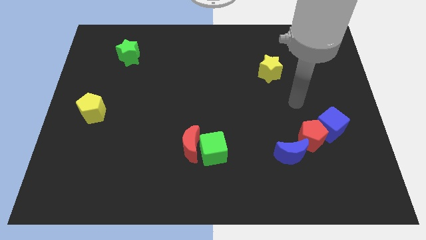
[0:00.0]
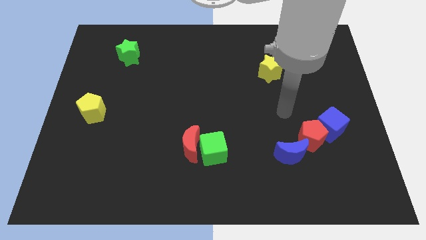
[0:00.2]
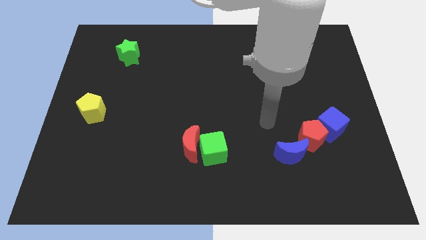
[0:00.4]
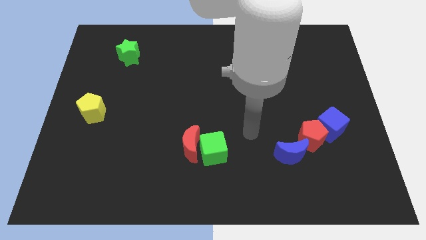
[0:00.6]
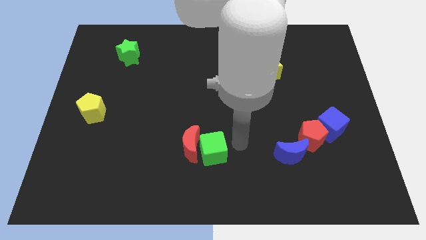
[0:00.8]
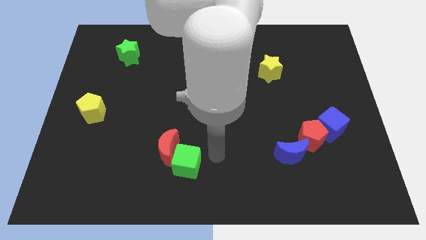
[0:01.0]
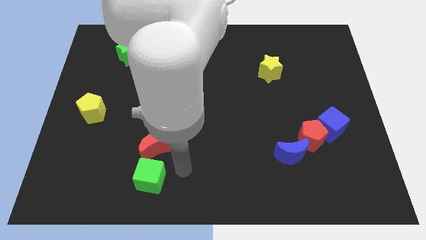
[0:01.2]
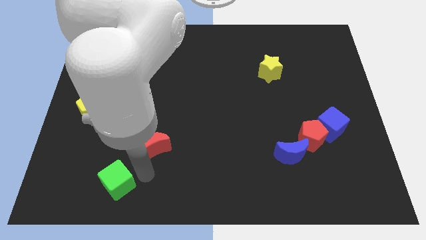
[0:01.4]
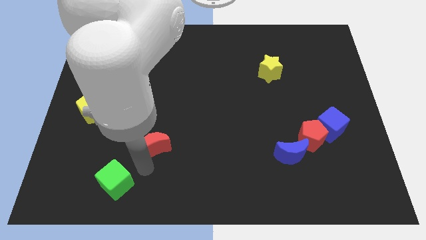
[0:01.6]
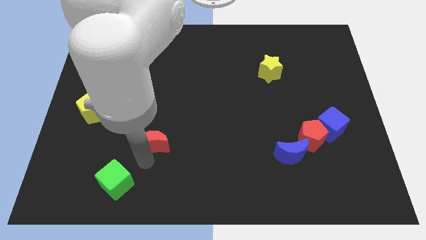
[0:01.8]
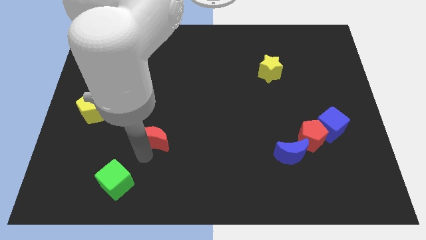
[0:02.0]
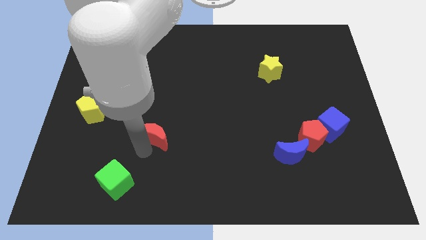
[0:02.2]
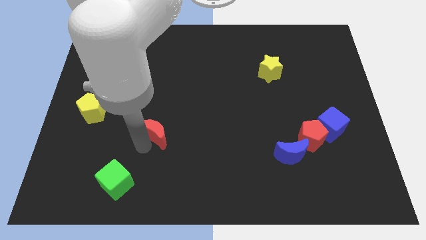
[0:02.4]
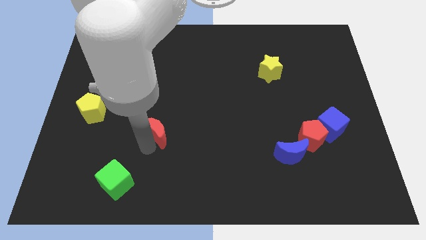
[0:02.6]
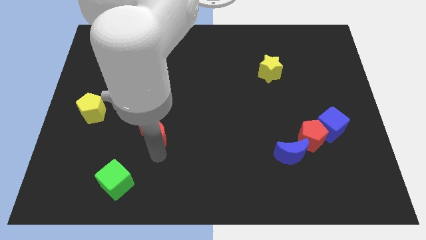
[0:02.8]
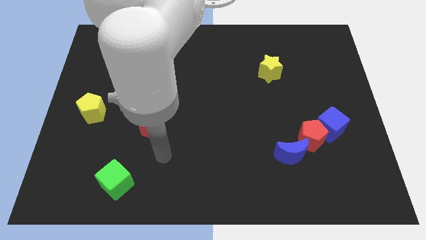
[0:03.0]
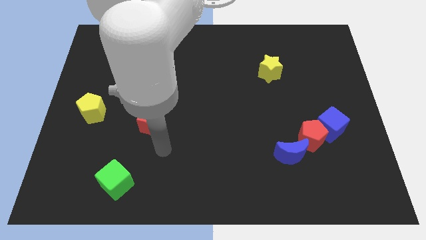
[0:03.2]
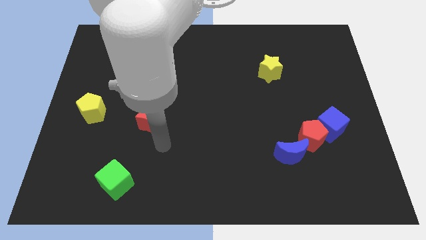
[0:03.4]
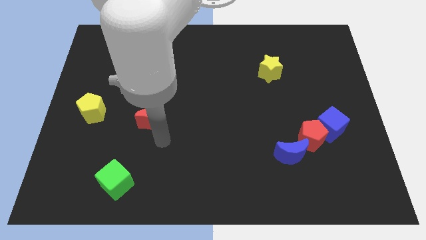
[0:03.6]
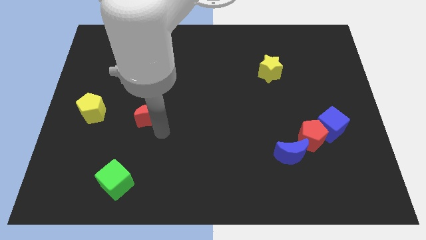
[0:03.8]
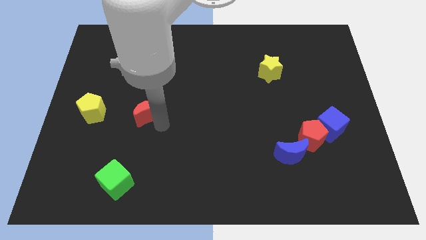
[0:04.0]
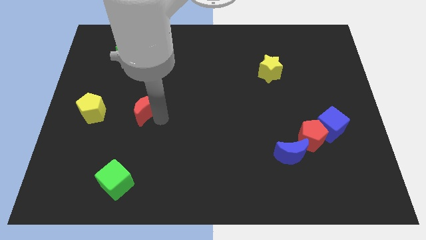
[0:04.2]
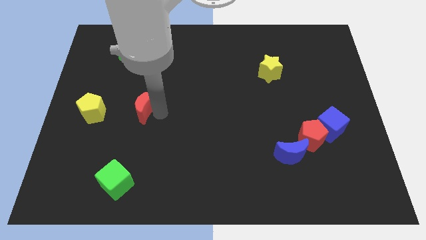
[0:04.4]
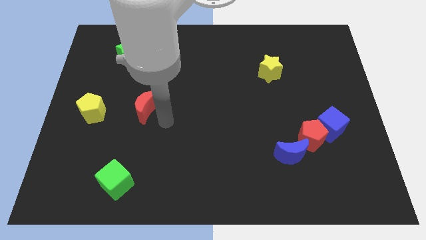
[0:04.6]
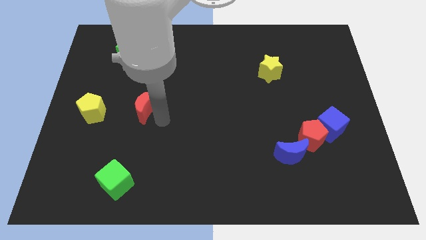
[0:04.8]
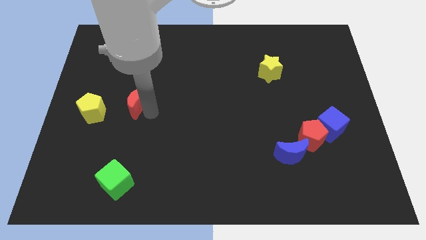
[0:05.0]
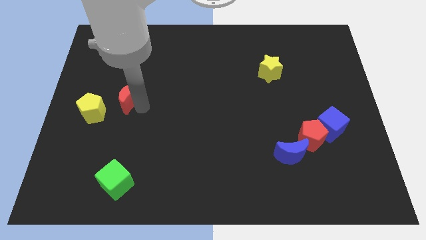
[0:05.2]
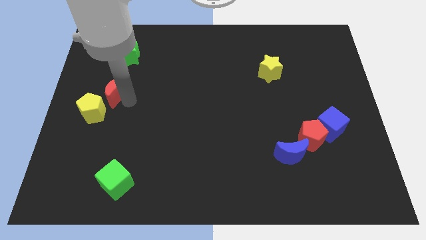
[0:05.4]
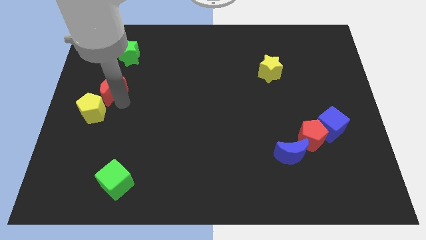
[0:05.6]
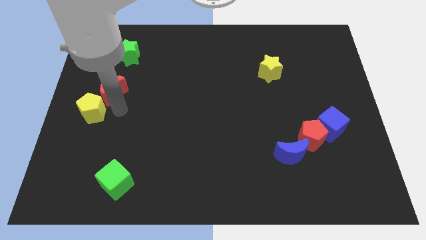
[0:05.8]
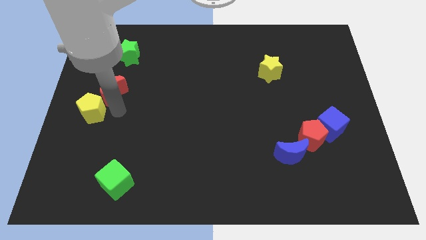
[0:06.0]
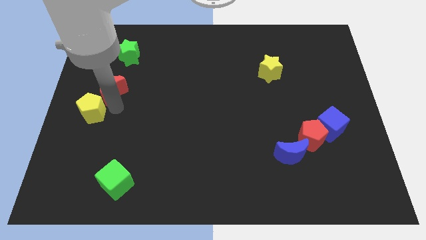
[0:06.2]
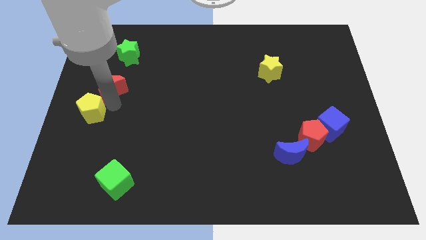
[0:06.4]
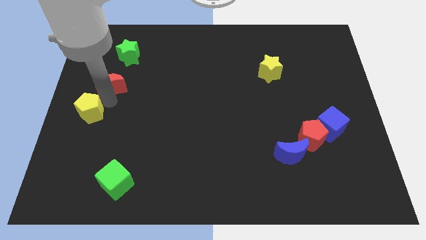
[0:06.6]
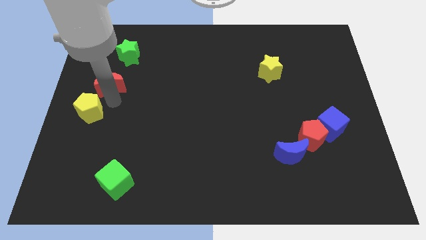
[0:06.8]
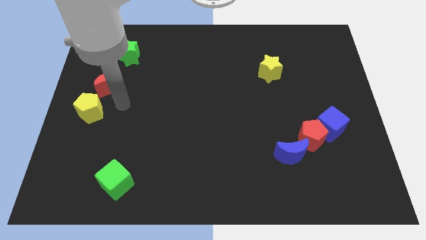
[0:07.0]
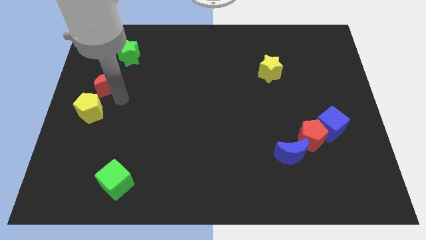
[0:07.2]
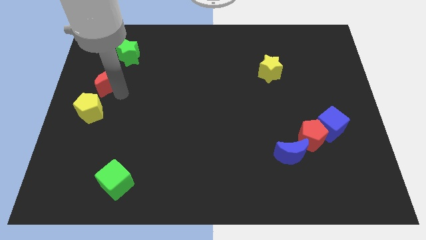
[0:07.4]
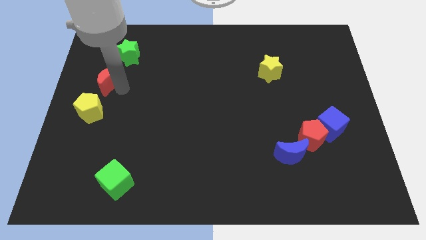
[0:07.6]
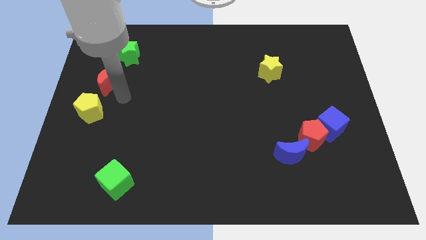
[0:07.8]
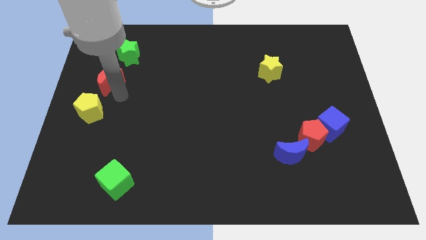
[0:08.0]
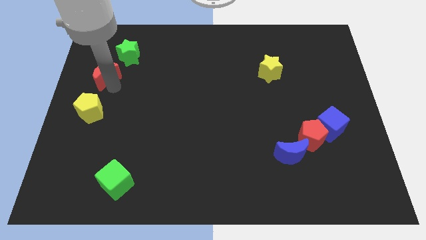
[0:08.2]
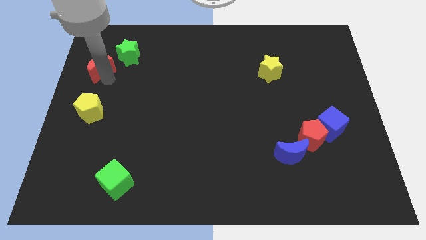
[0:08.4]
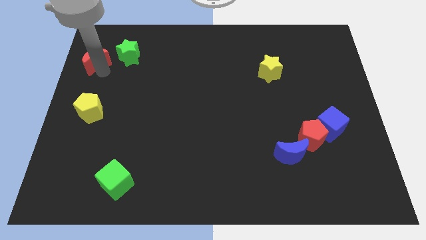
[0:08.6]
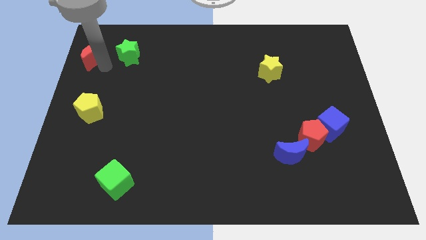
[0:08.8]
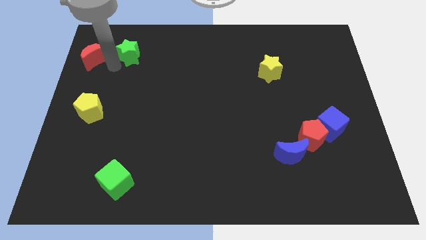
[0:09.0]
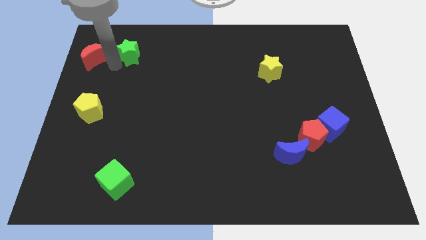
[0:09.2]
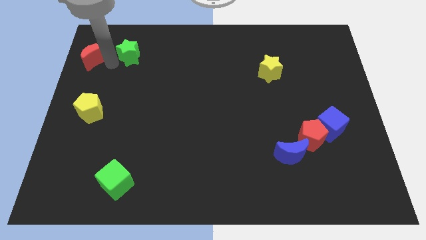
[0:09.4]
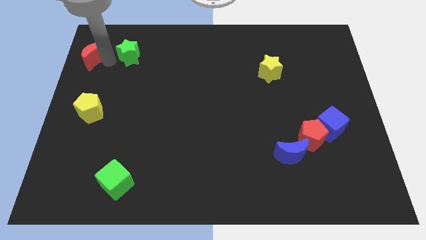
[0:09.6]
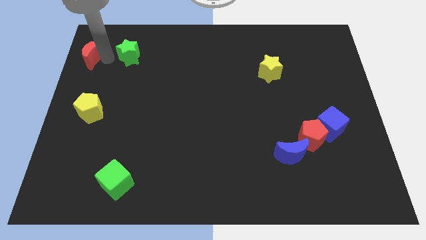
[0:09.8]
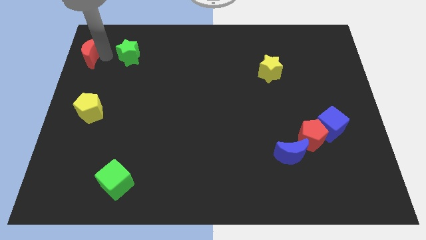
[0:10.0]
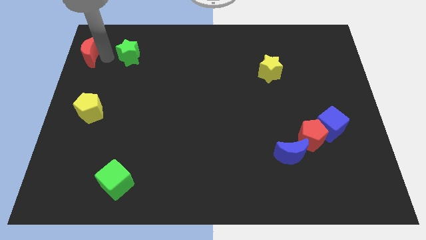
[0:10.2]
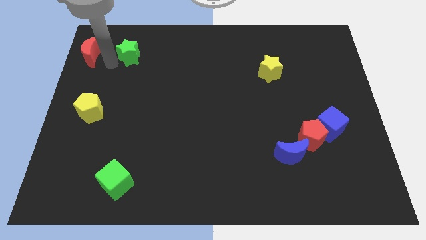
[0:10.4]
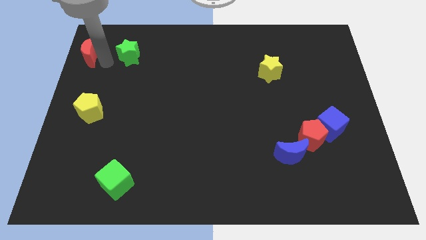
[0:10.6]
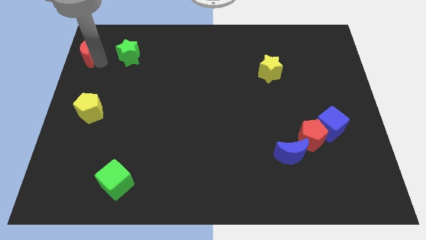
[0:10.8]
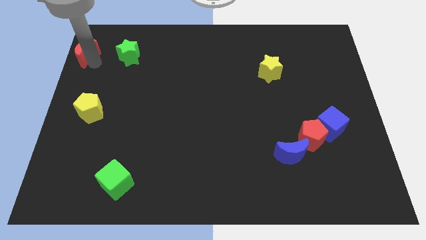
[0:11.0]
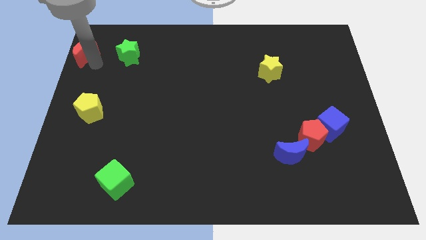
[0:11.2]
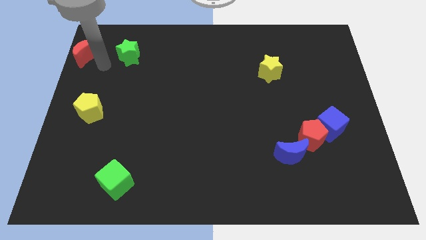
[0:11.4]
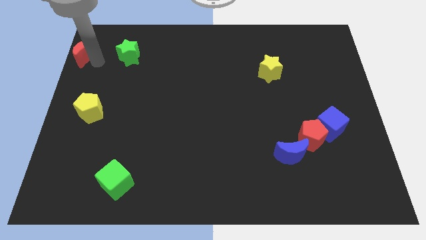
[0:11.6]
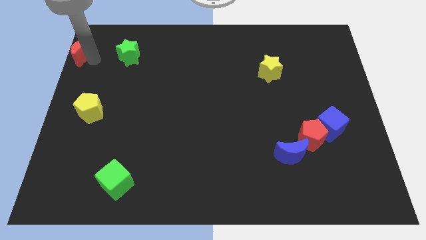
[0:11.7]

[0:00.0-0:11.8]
put the red moon to the top left of the board

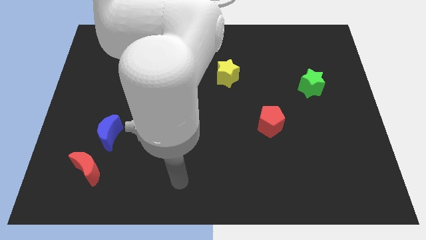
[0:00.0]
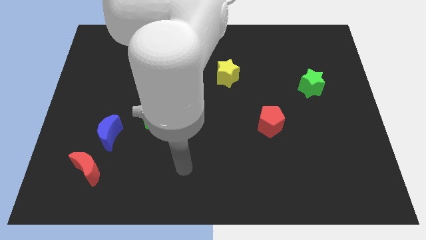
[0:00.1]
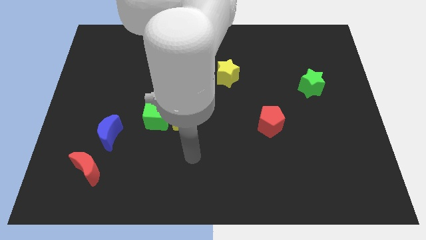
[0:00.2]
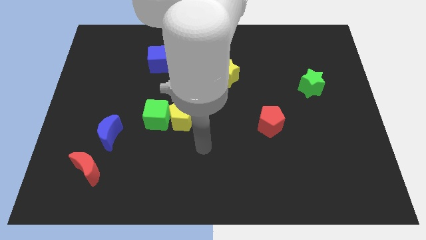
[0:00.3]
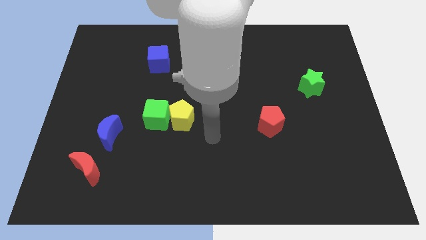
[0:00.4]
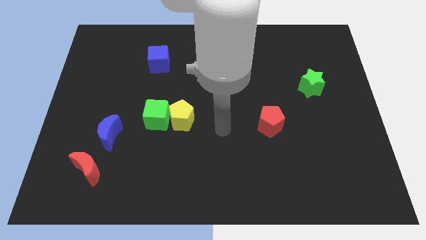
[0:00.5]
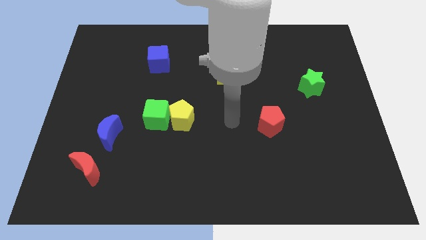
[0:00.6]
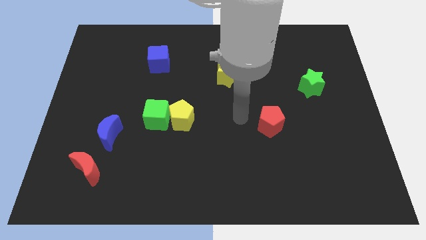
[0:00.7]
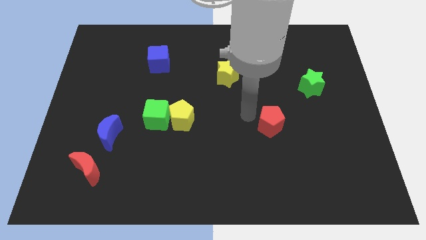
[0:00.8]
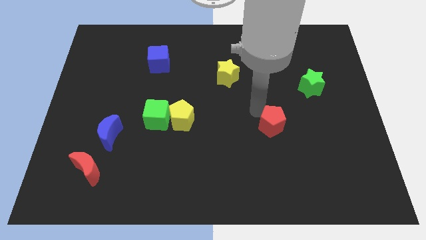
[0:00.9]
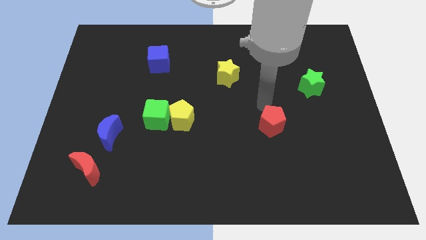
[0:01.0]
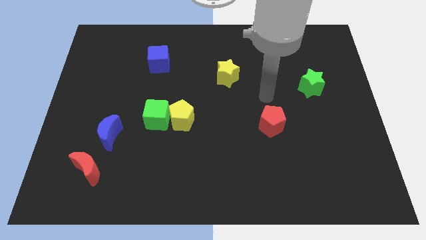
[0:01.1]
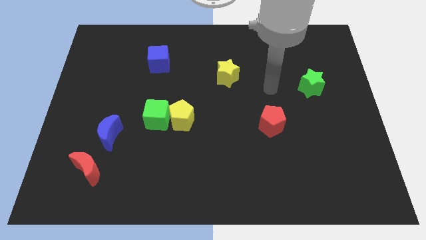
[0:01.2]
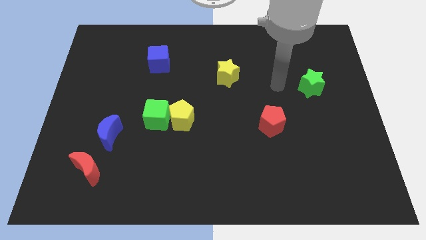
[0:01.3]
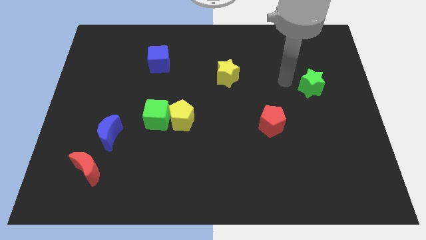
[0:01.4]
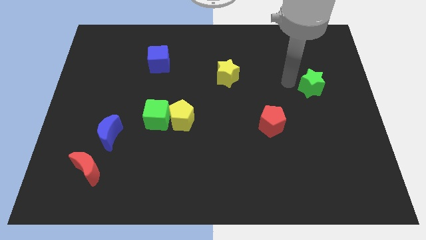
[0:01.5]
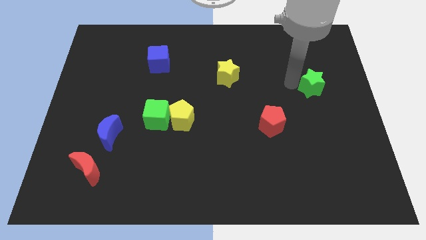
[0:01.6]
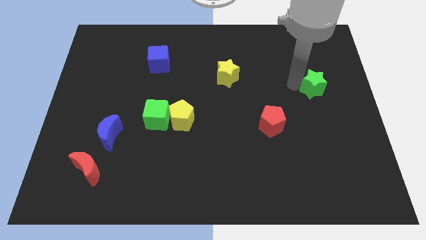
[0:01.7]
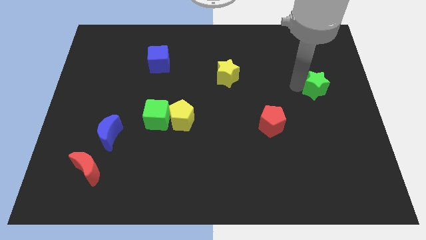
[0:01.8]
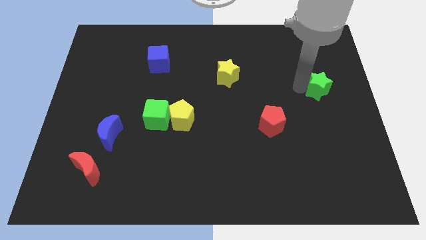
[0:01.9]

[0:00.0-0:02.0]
slide the green star to the center right
